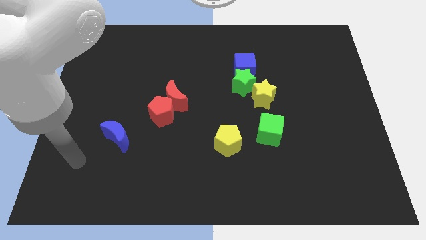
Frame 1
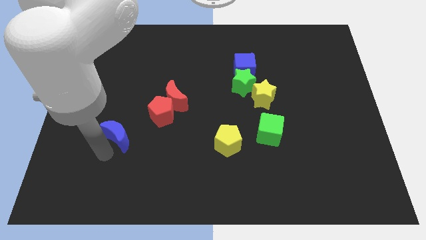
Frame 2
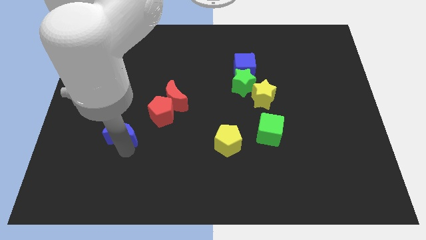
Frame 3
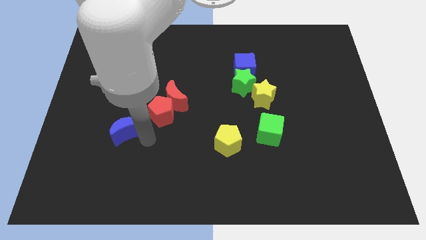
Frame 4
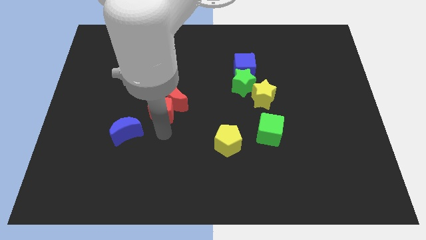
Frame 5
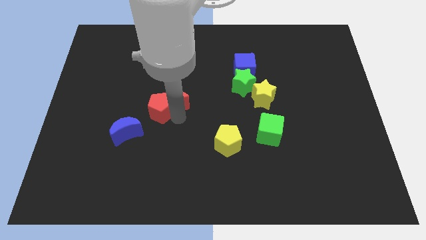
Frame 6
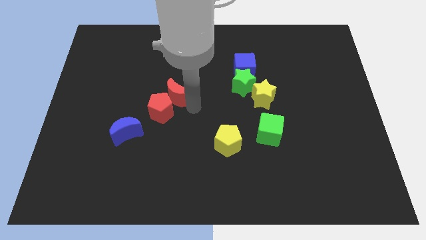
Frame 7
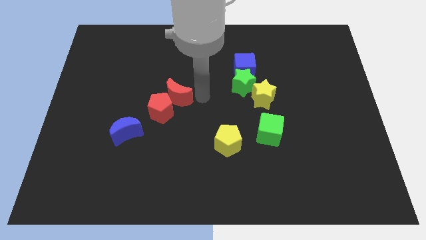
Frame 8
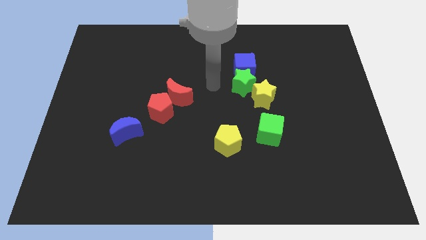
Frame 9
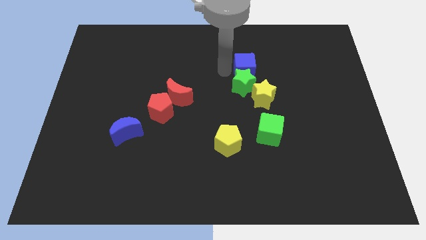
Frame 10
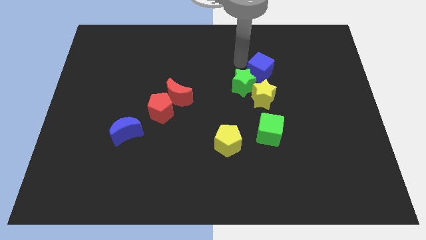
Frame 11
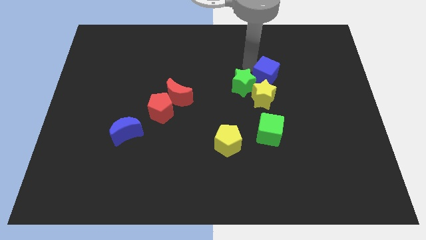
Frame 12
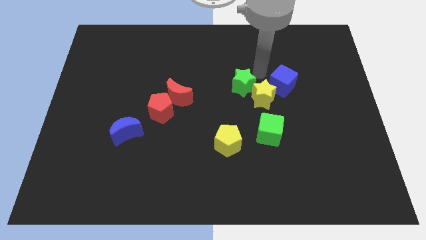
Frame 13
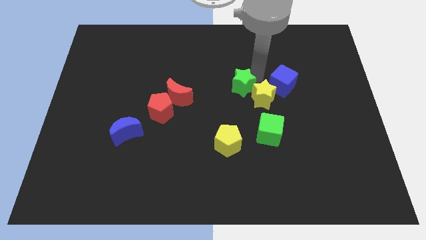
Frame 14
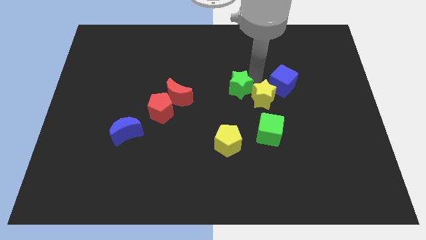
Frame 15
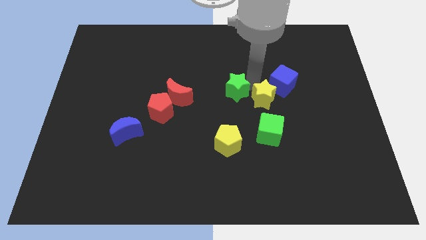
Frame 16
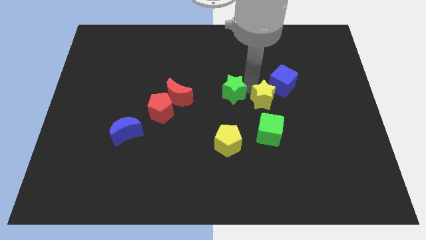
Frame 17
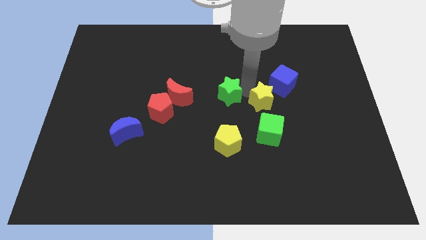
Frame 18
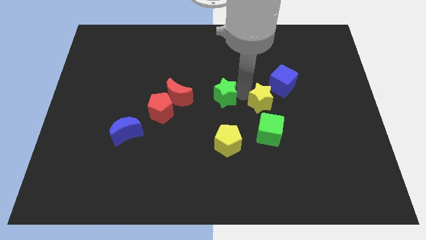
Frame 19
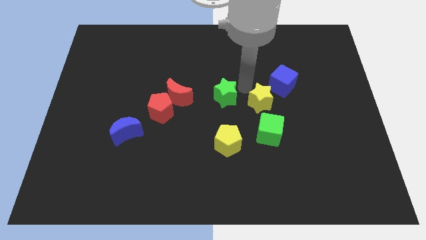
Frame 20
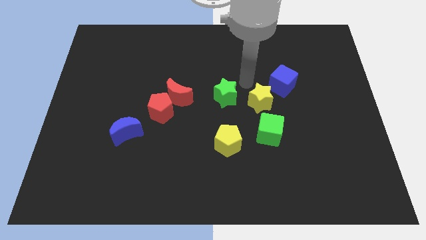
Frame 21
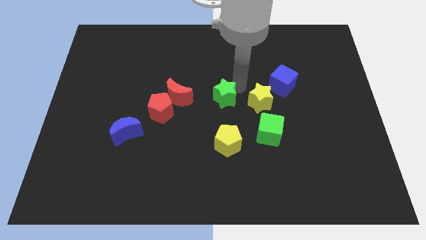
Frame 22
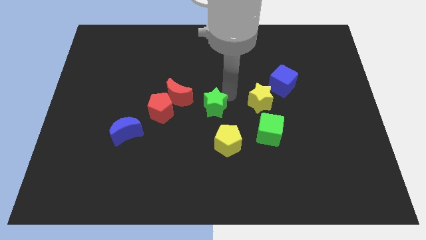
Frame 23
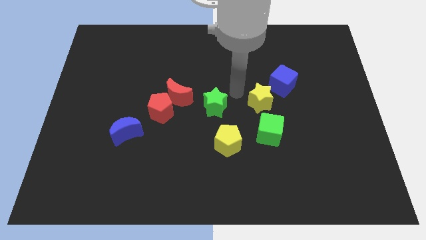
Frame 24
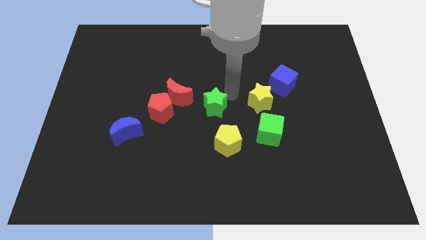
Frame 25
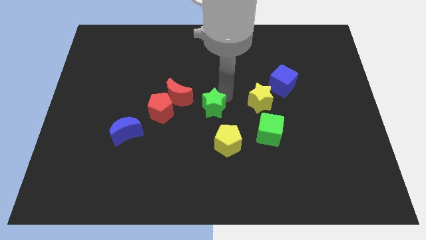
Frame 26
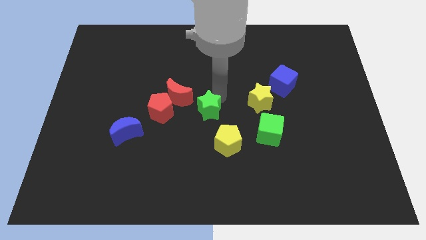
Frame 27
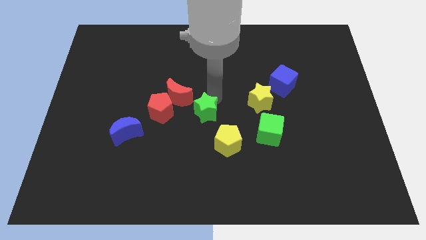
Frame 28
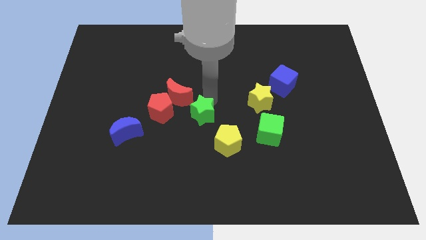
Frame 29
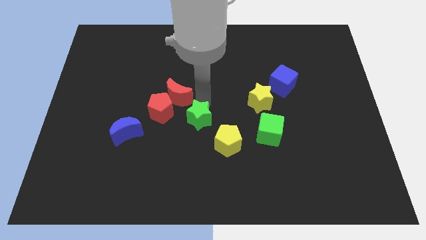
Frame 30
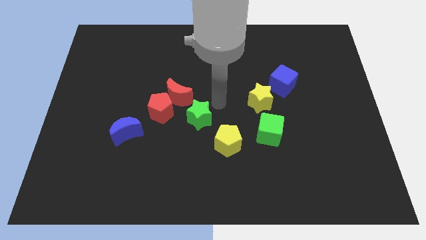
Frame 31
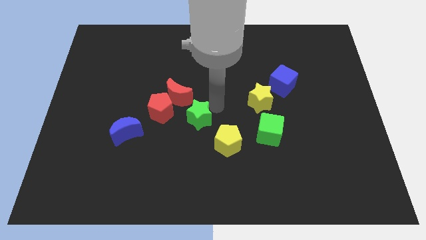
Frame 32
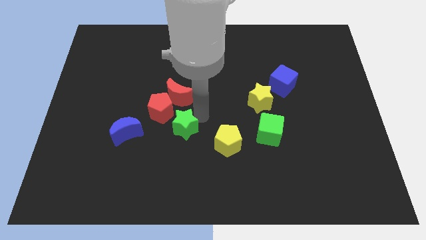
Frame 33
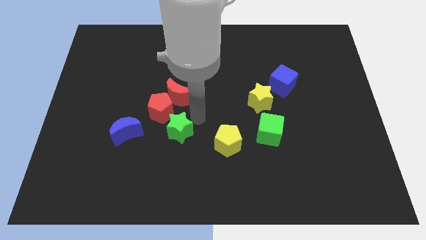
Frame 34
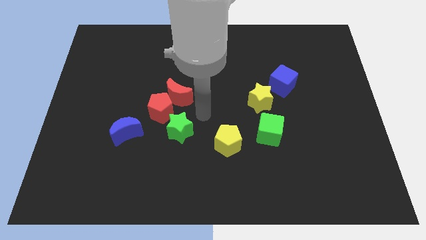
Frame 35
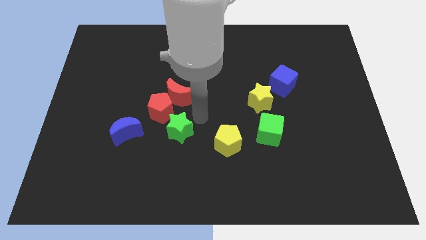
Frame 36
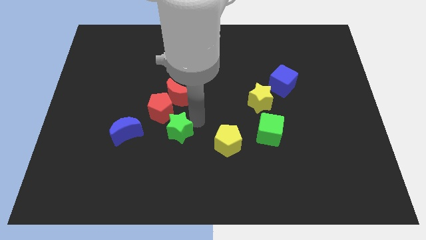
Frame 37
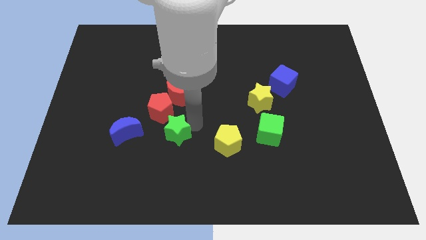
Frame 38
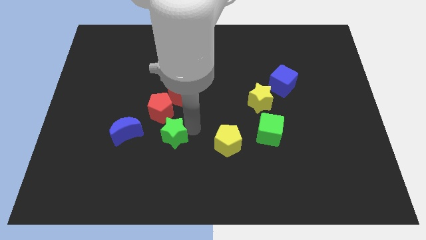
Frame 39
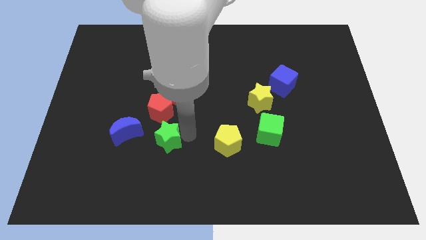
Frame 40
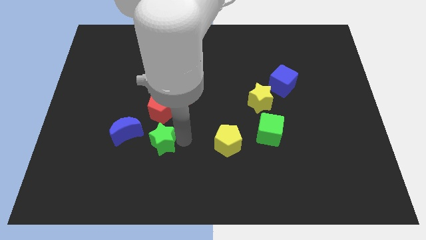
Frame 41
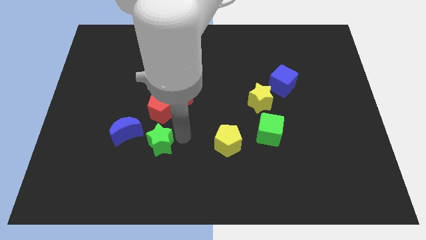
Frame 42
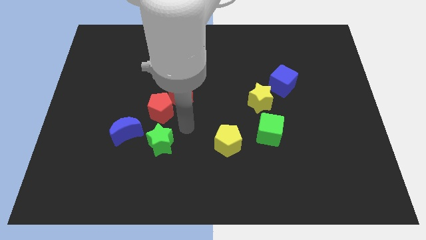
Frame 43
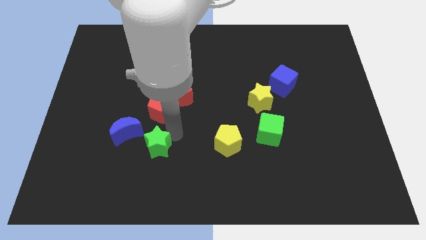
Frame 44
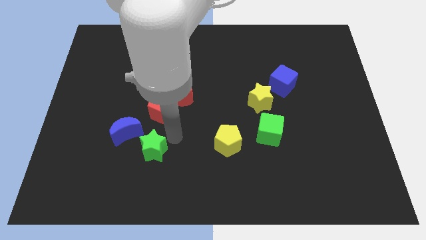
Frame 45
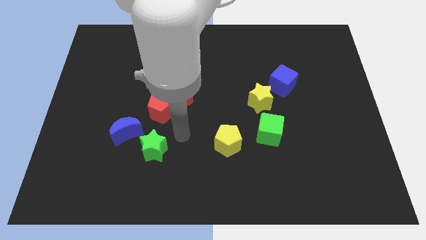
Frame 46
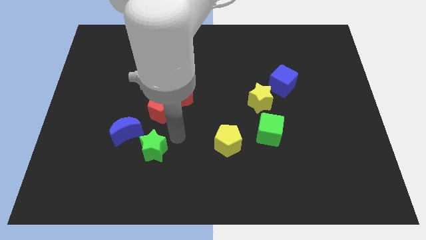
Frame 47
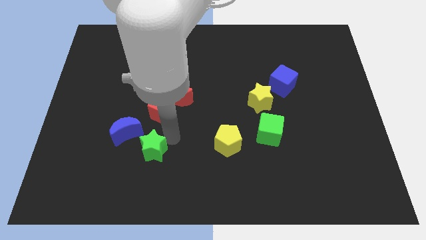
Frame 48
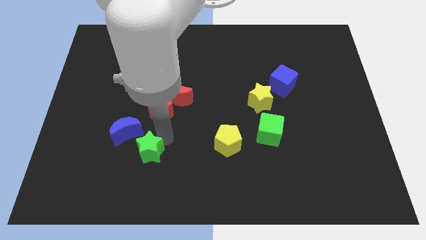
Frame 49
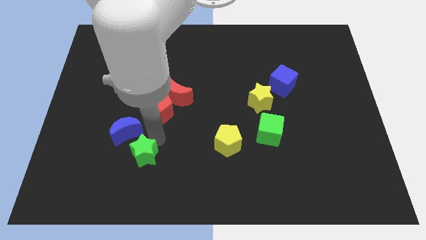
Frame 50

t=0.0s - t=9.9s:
put the green star below the blue moon

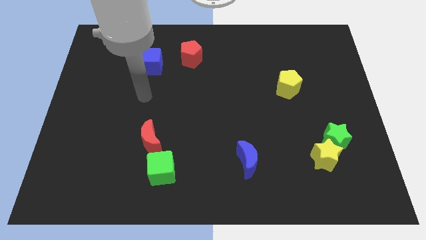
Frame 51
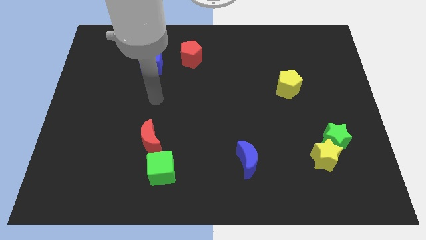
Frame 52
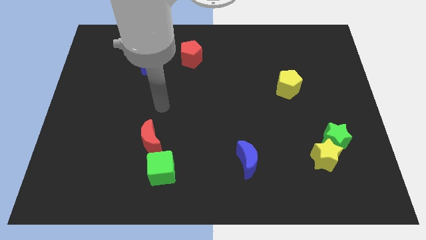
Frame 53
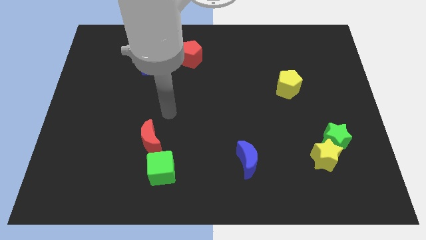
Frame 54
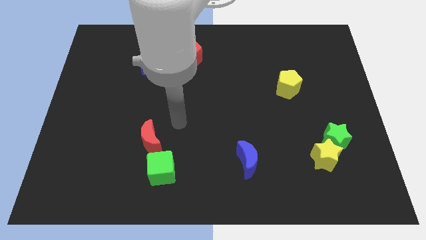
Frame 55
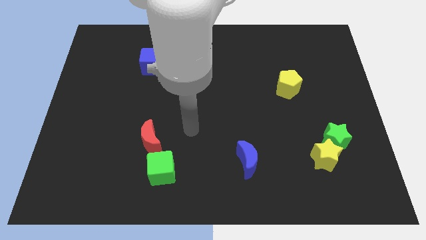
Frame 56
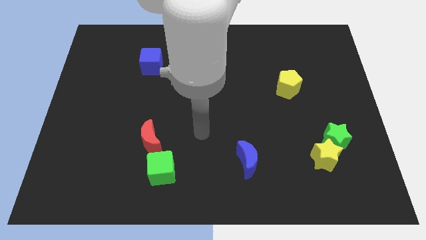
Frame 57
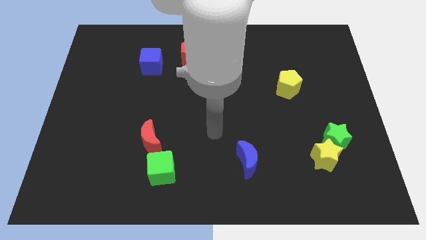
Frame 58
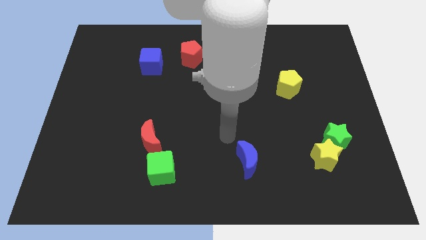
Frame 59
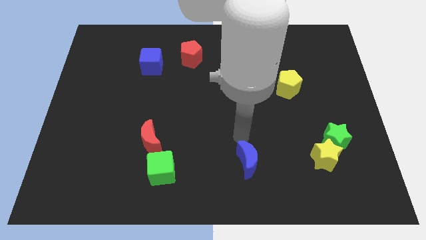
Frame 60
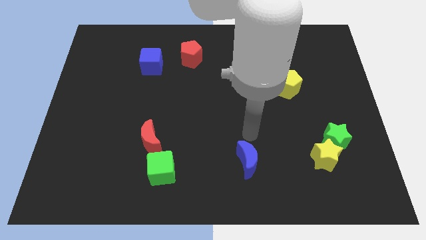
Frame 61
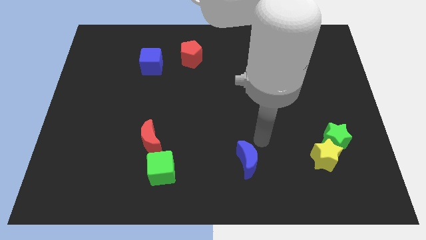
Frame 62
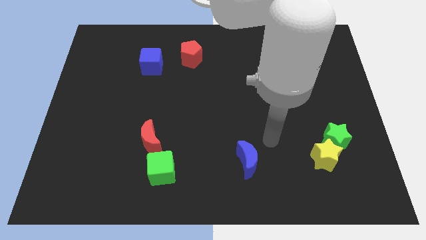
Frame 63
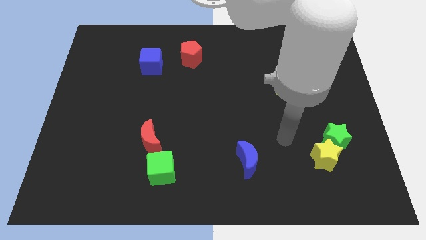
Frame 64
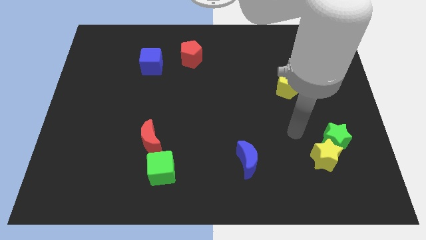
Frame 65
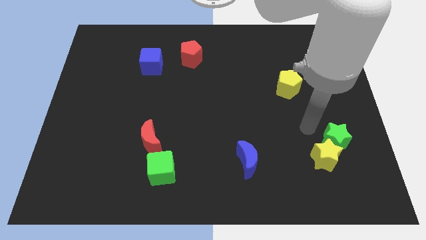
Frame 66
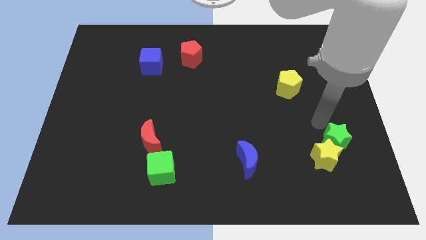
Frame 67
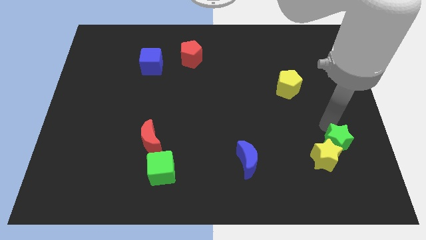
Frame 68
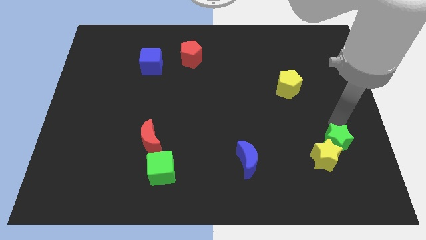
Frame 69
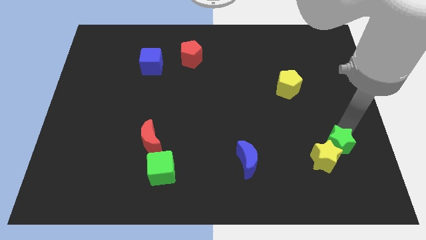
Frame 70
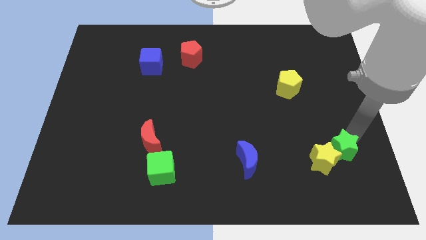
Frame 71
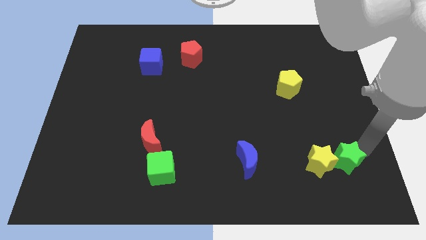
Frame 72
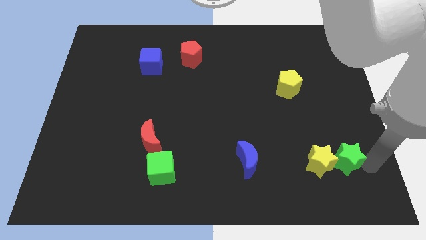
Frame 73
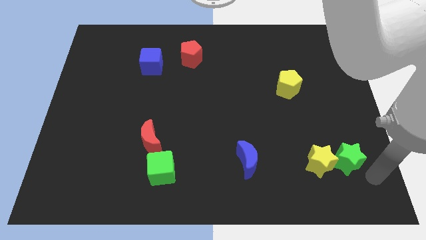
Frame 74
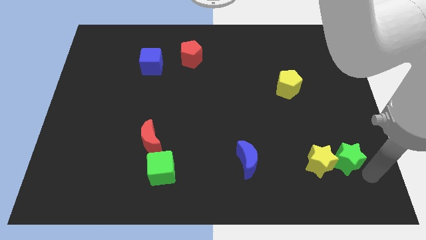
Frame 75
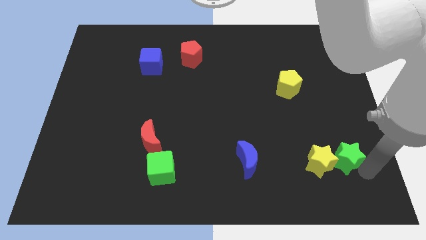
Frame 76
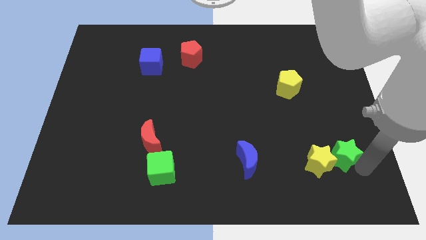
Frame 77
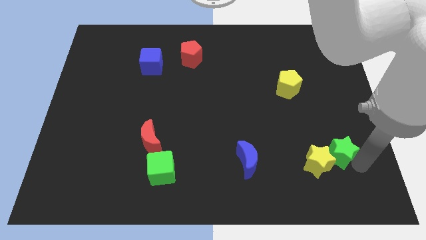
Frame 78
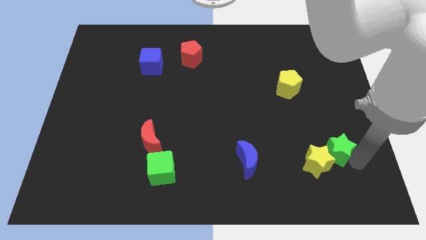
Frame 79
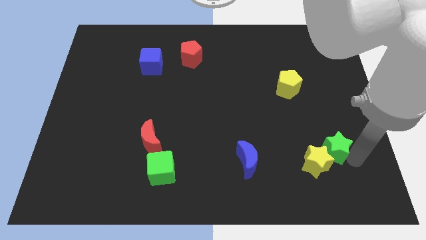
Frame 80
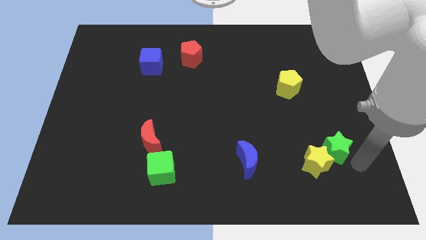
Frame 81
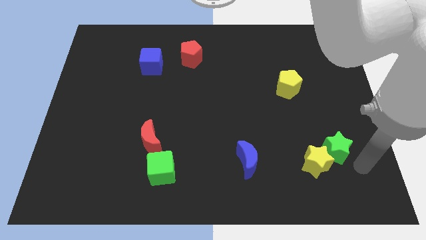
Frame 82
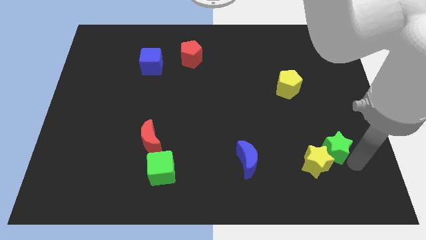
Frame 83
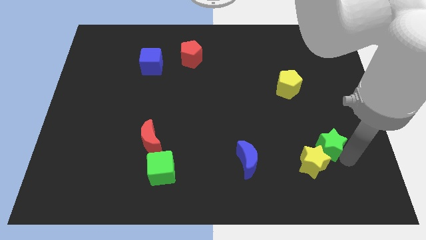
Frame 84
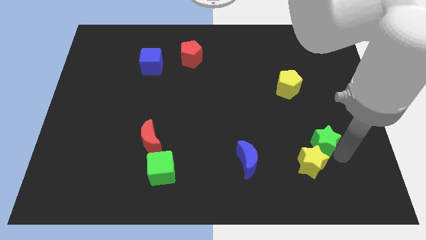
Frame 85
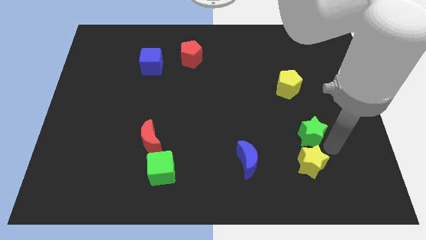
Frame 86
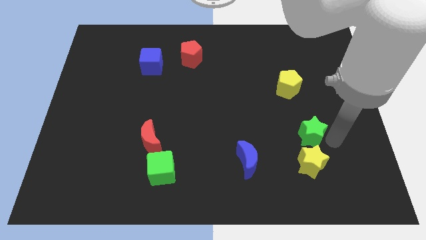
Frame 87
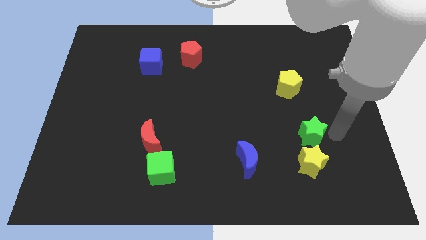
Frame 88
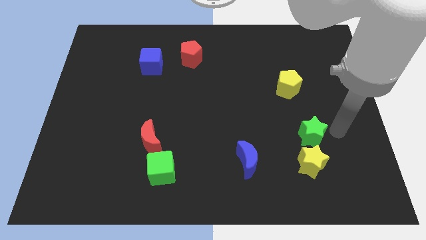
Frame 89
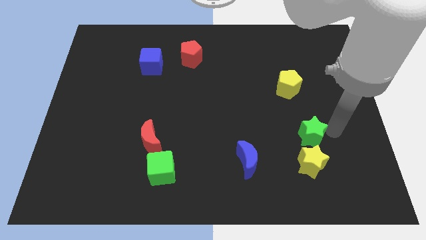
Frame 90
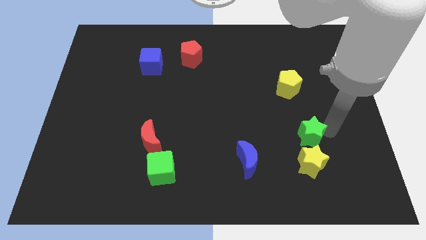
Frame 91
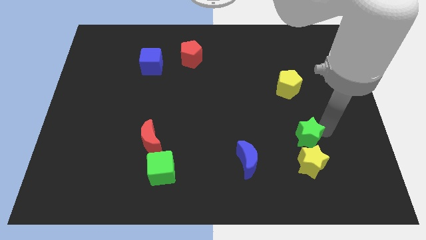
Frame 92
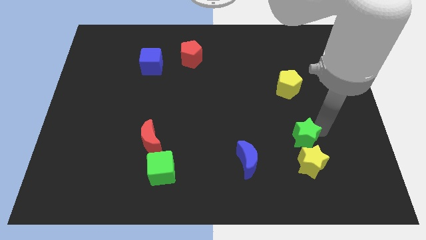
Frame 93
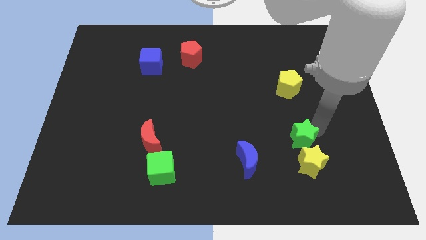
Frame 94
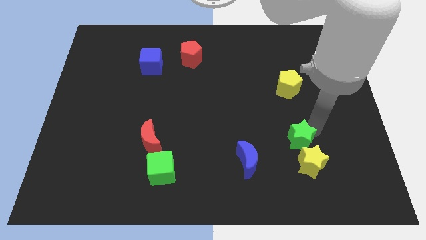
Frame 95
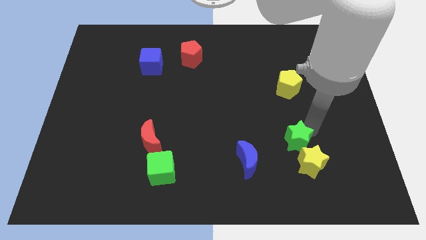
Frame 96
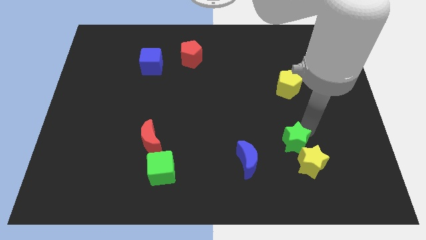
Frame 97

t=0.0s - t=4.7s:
push the green star diagonally up and to the right of the blue moon
